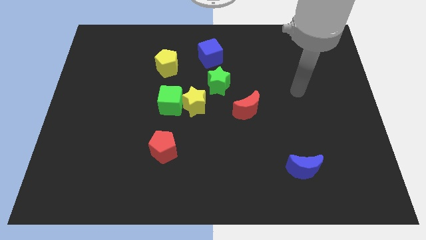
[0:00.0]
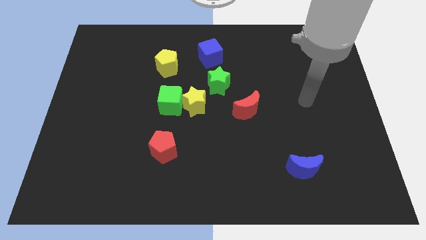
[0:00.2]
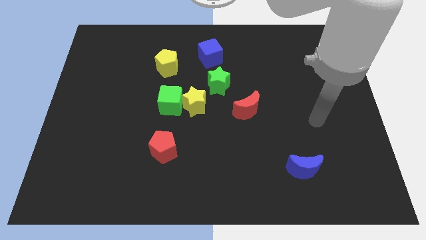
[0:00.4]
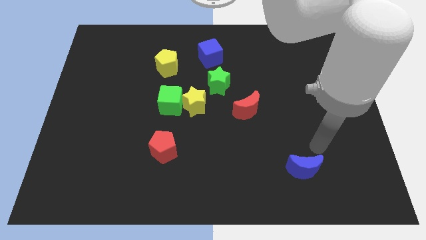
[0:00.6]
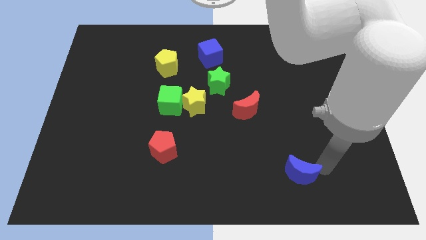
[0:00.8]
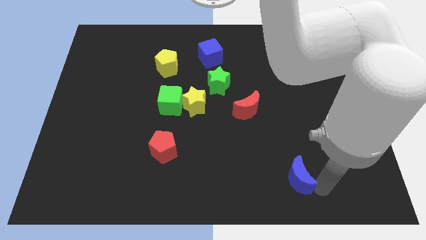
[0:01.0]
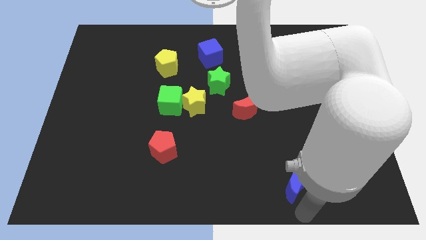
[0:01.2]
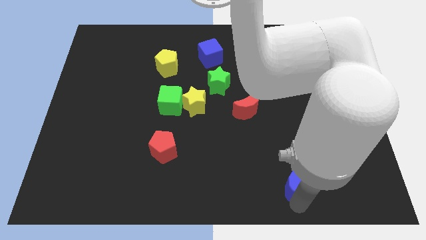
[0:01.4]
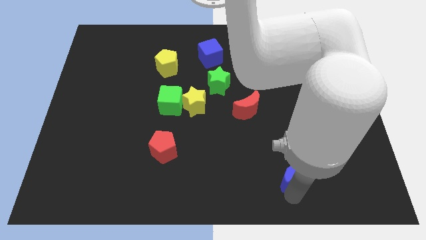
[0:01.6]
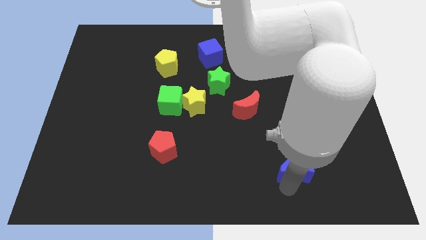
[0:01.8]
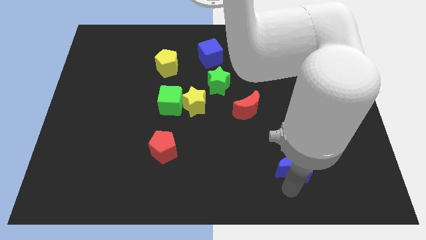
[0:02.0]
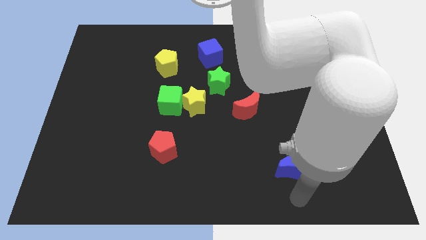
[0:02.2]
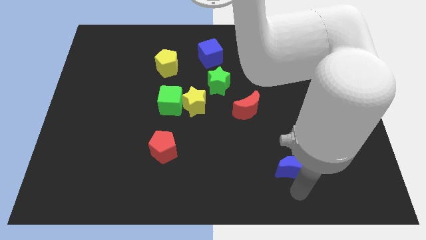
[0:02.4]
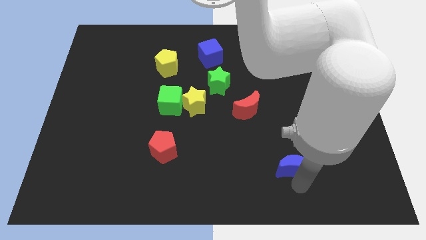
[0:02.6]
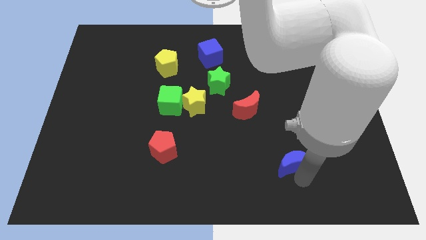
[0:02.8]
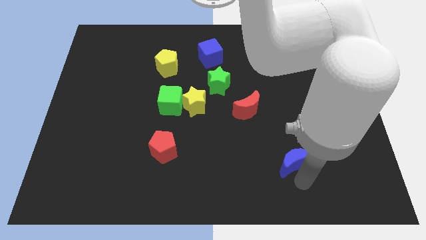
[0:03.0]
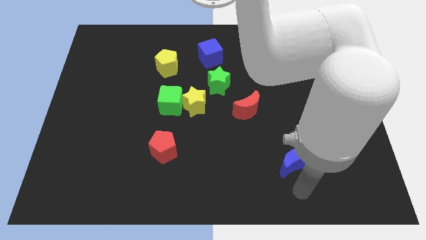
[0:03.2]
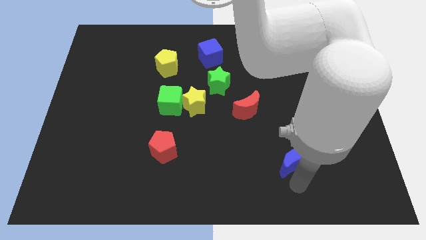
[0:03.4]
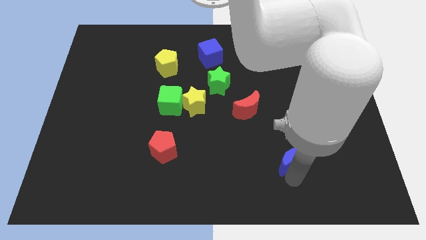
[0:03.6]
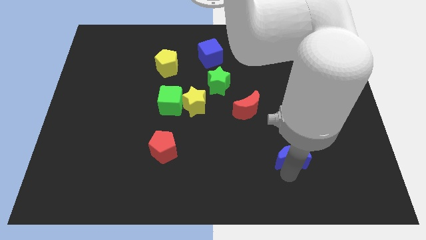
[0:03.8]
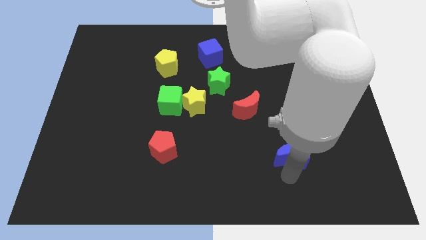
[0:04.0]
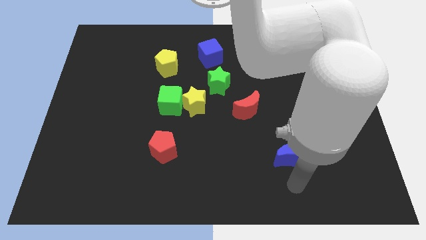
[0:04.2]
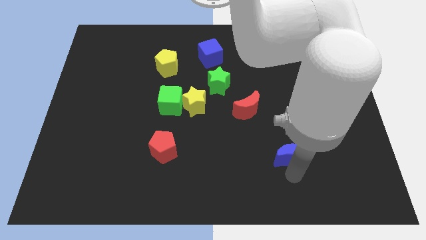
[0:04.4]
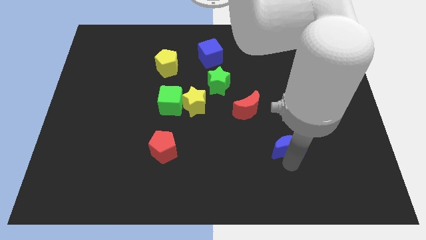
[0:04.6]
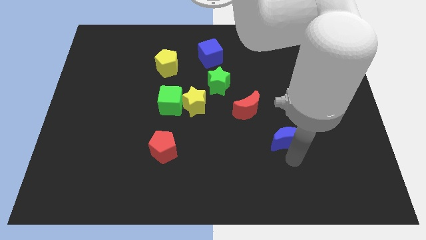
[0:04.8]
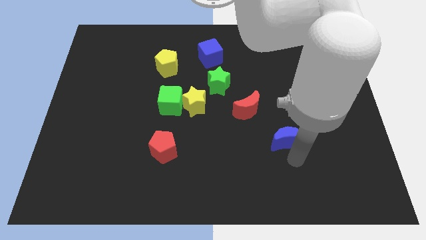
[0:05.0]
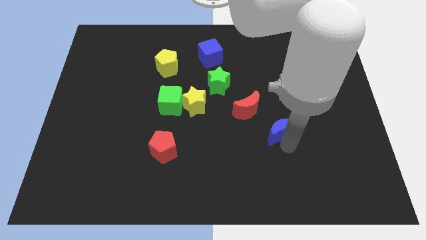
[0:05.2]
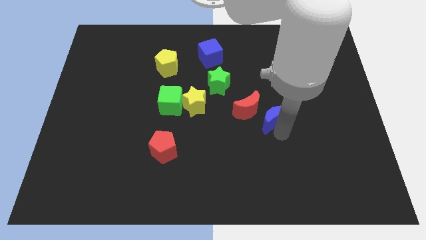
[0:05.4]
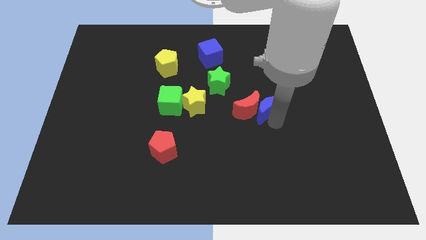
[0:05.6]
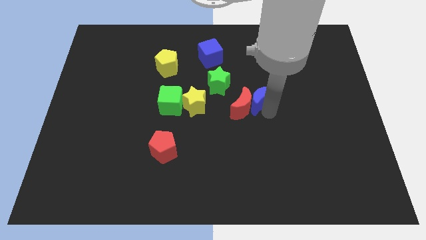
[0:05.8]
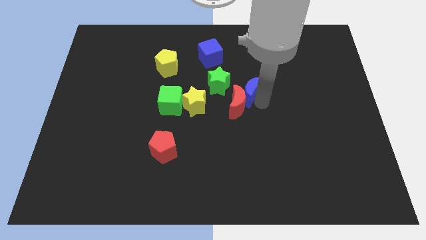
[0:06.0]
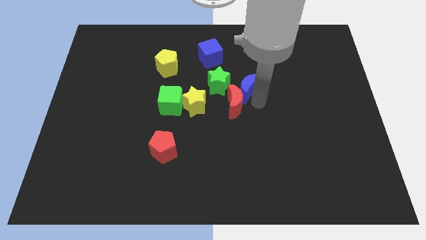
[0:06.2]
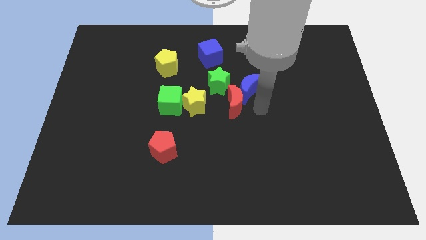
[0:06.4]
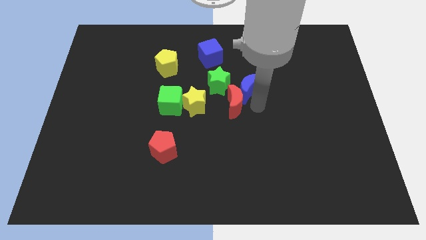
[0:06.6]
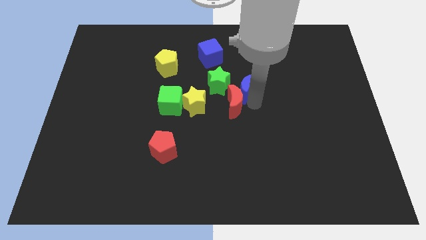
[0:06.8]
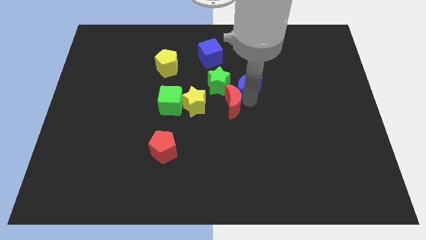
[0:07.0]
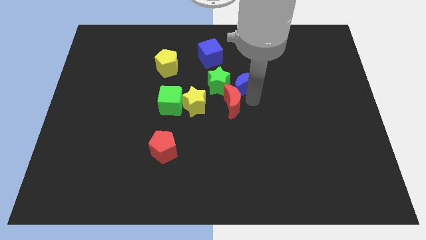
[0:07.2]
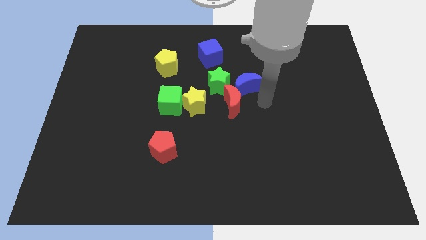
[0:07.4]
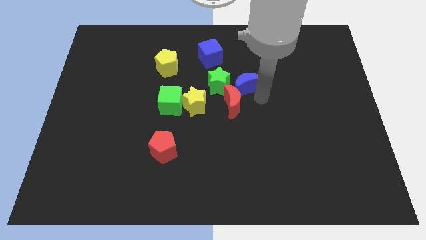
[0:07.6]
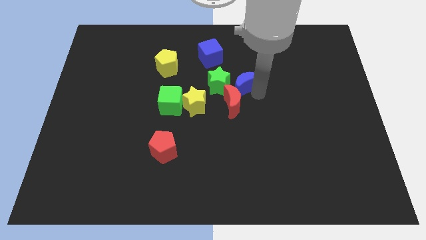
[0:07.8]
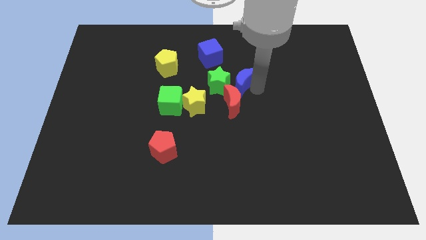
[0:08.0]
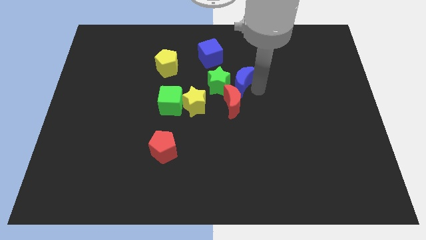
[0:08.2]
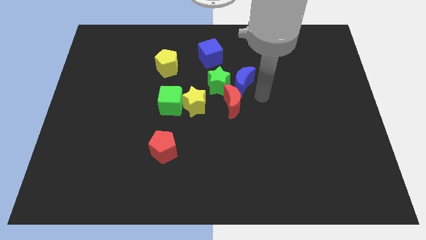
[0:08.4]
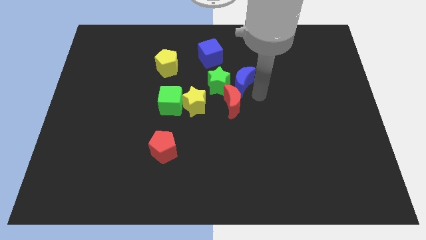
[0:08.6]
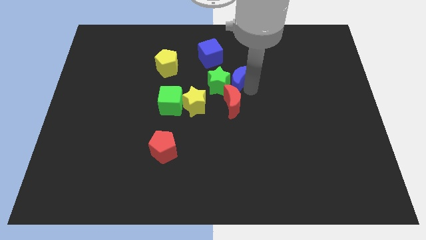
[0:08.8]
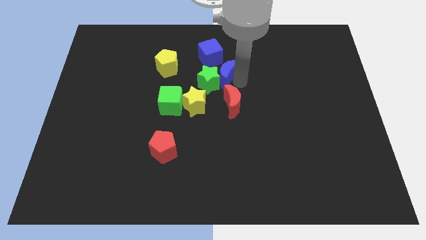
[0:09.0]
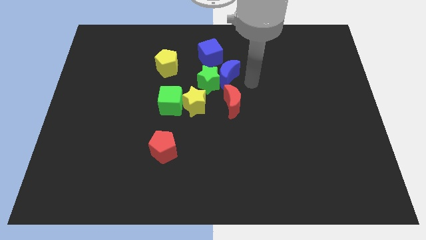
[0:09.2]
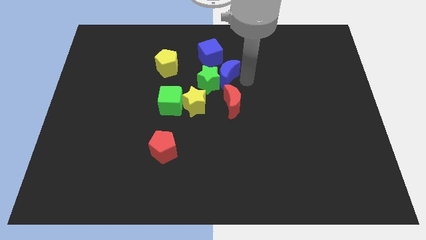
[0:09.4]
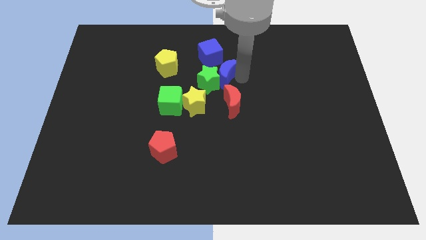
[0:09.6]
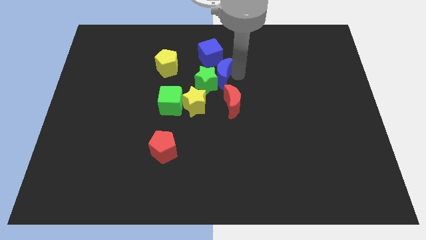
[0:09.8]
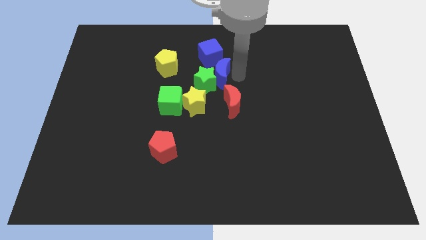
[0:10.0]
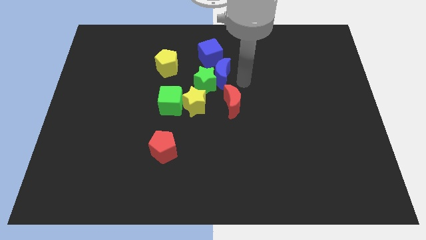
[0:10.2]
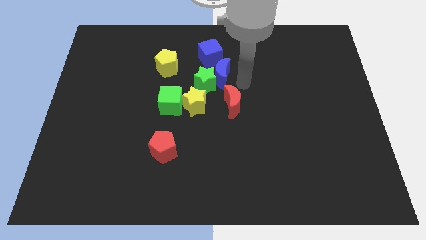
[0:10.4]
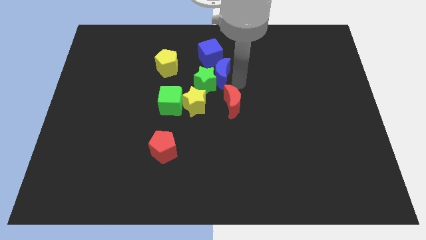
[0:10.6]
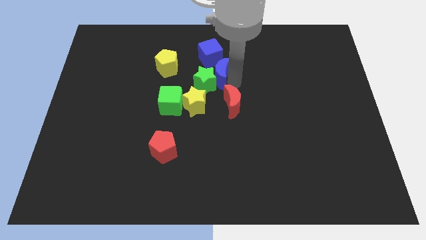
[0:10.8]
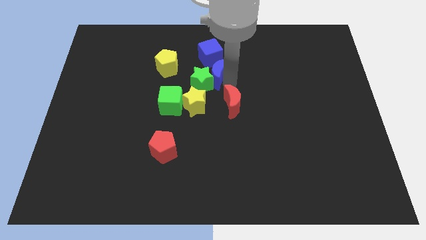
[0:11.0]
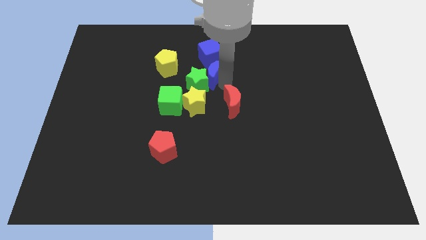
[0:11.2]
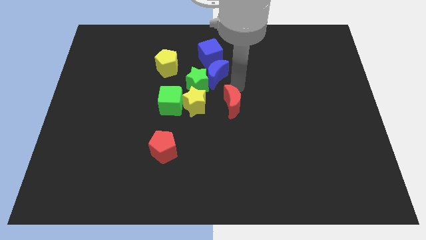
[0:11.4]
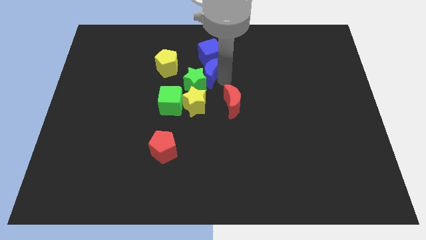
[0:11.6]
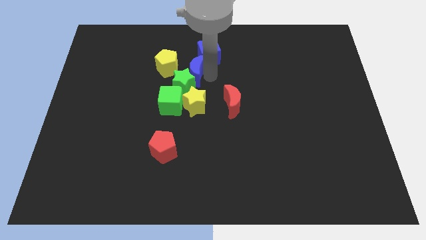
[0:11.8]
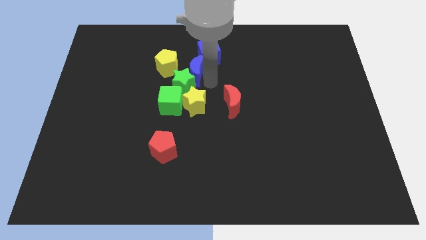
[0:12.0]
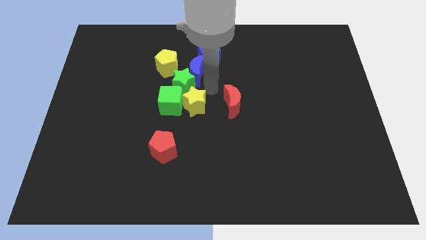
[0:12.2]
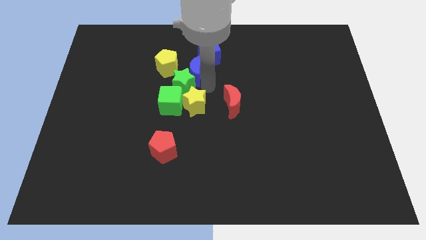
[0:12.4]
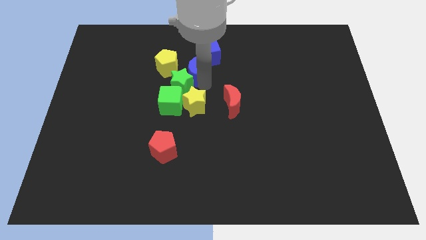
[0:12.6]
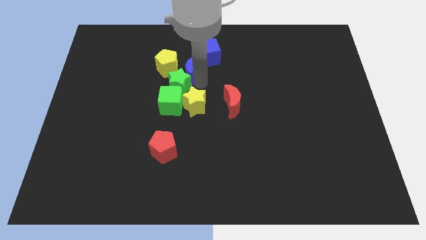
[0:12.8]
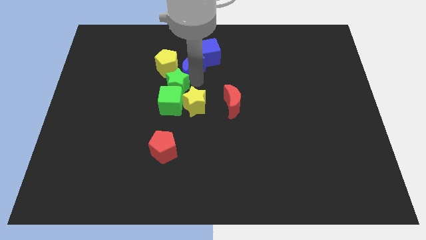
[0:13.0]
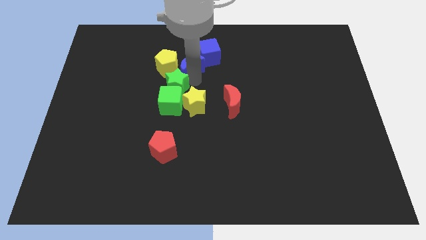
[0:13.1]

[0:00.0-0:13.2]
slide the blue moon next to the yellow pentagon

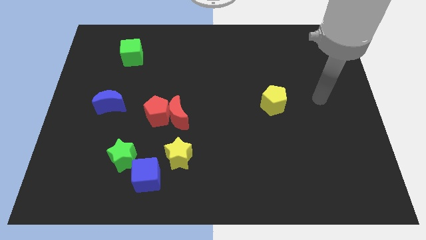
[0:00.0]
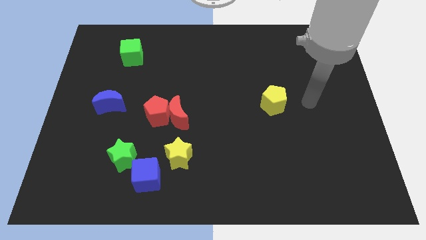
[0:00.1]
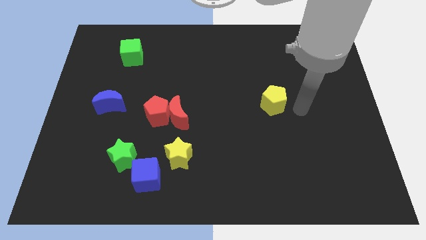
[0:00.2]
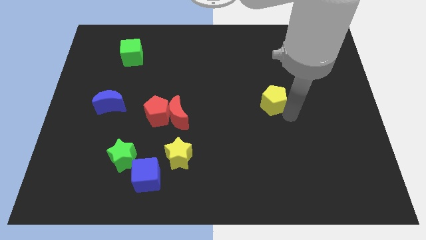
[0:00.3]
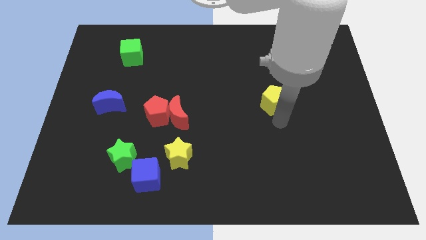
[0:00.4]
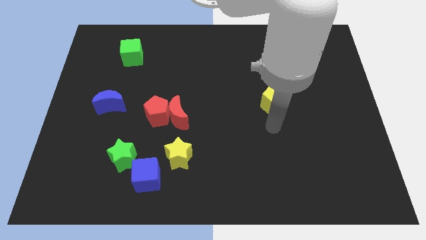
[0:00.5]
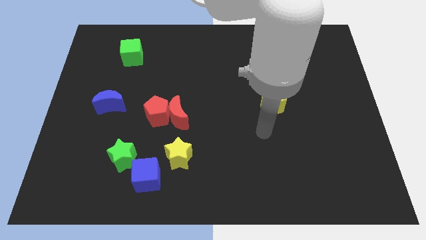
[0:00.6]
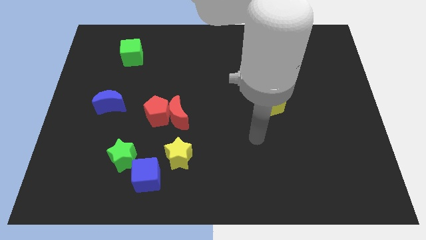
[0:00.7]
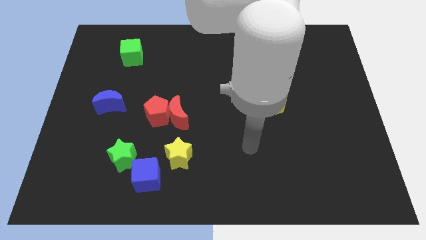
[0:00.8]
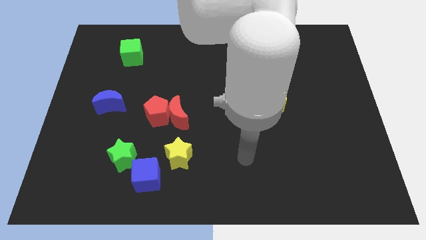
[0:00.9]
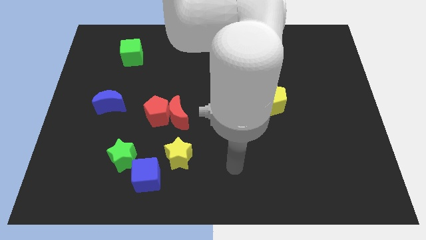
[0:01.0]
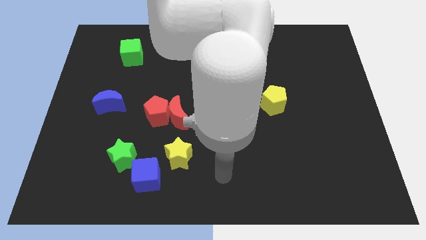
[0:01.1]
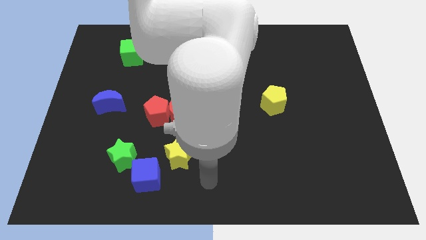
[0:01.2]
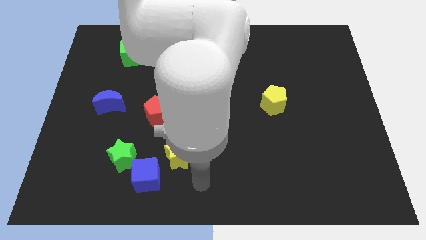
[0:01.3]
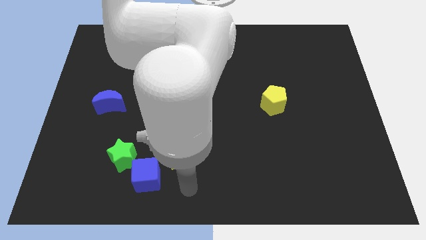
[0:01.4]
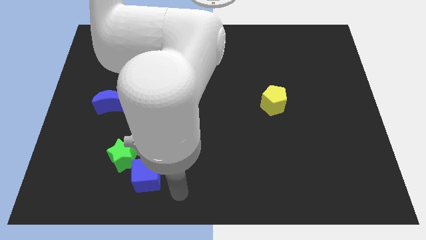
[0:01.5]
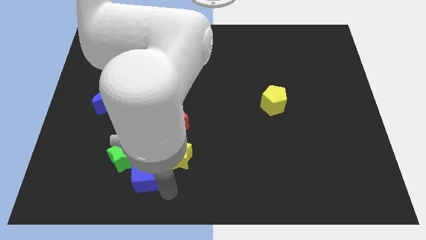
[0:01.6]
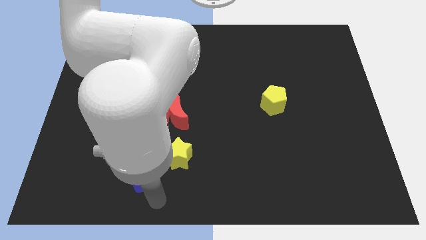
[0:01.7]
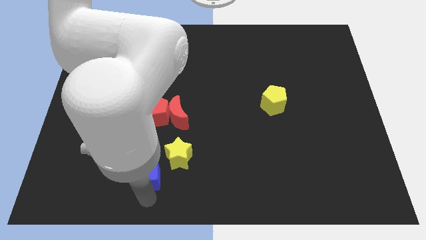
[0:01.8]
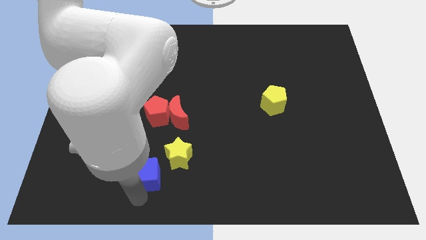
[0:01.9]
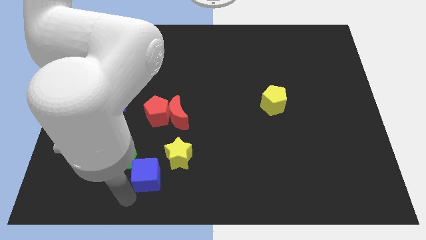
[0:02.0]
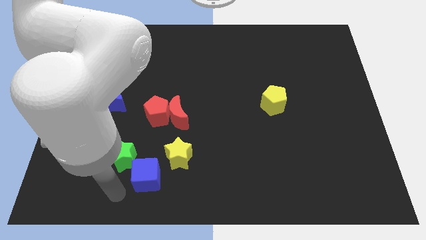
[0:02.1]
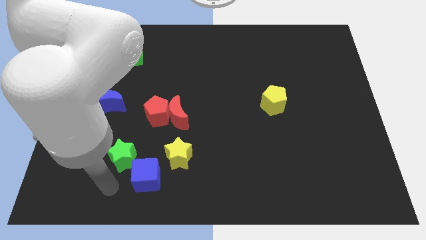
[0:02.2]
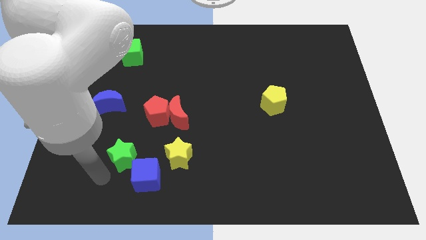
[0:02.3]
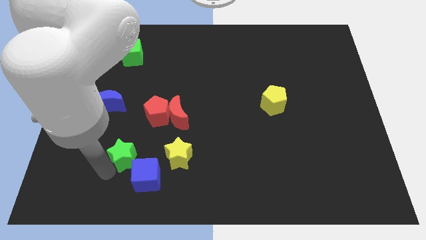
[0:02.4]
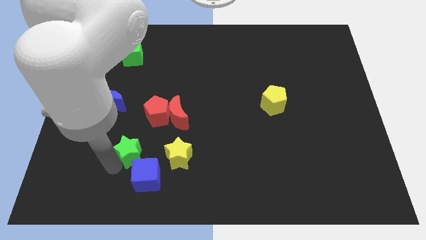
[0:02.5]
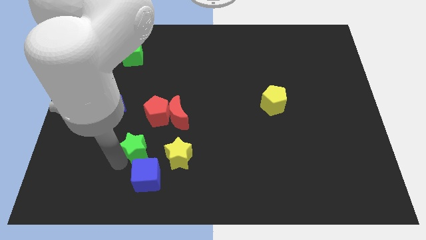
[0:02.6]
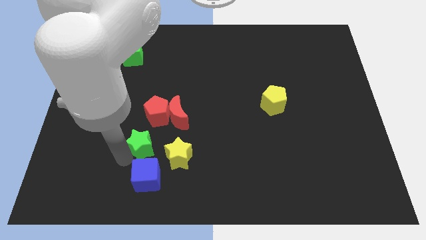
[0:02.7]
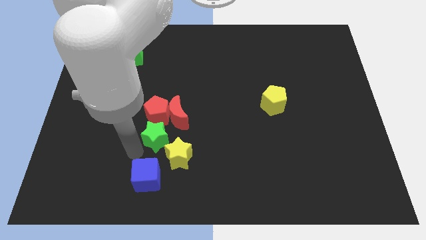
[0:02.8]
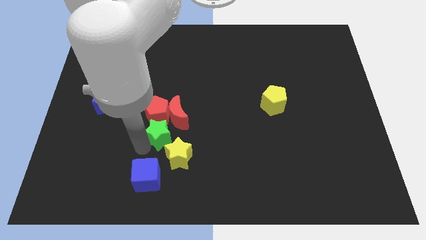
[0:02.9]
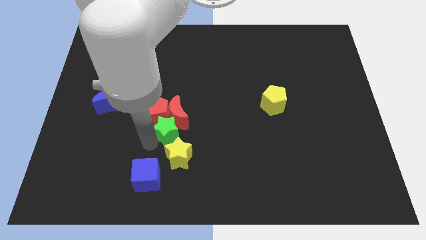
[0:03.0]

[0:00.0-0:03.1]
slide the green star towards the red moon
